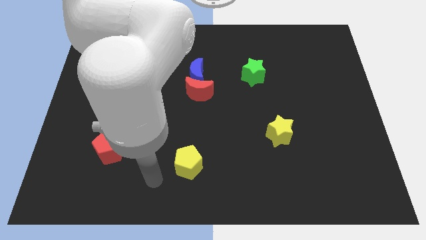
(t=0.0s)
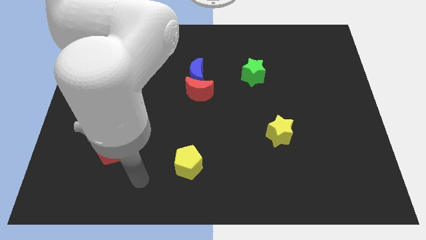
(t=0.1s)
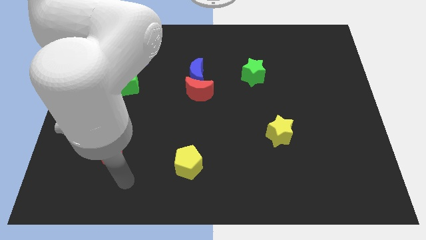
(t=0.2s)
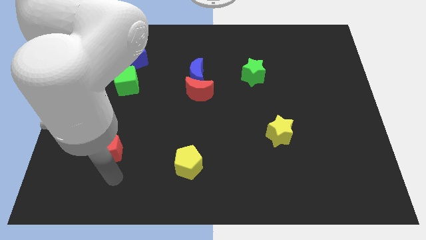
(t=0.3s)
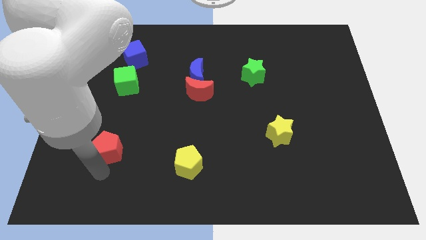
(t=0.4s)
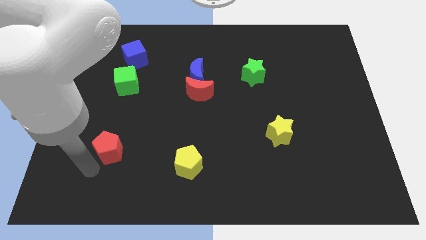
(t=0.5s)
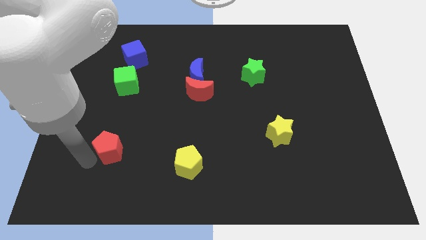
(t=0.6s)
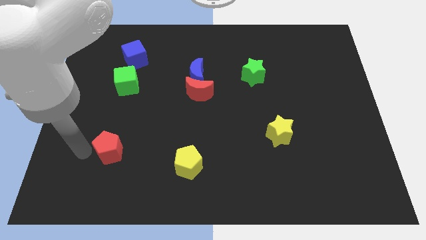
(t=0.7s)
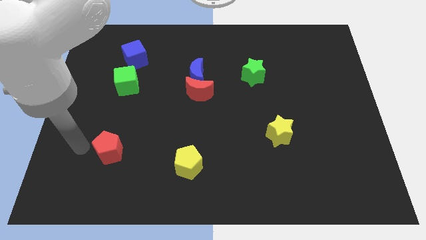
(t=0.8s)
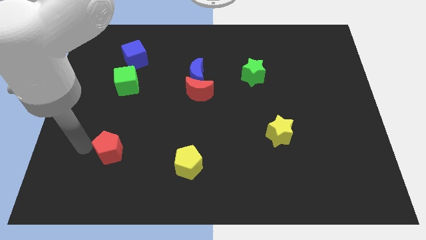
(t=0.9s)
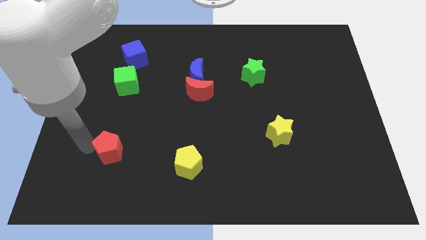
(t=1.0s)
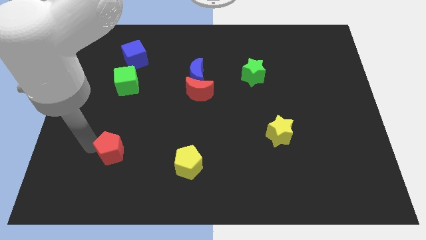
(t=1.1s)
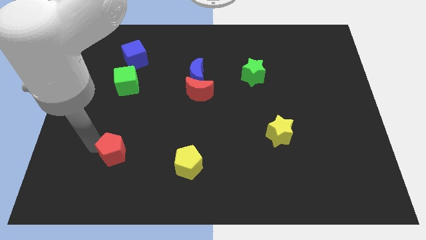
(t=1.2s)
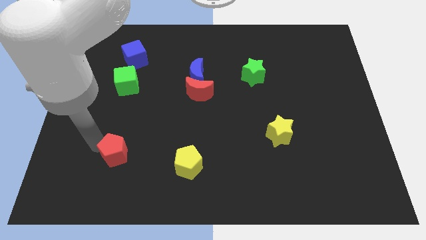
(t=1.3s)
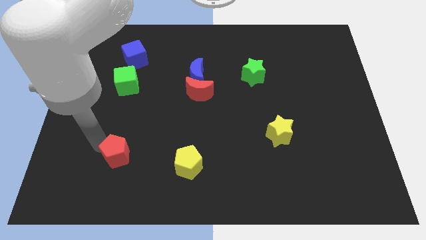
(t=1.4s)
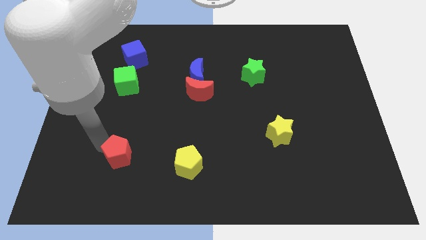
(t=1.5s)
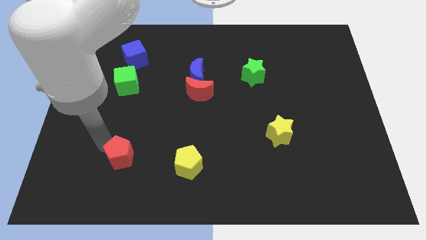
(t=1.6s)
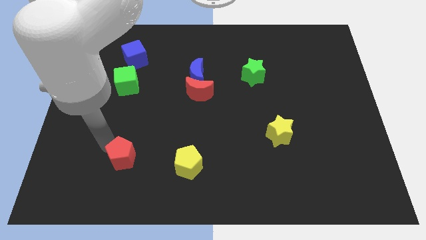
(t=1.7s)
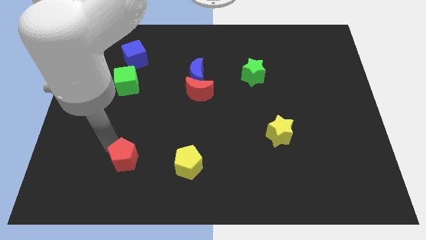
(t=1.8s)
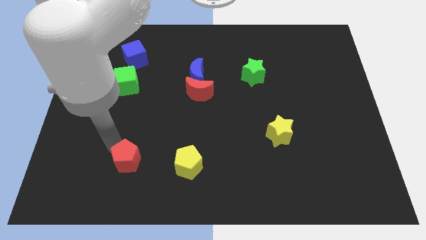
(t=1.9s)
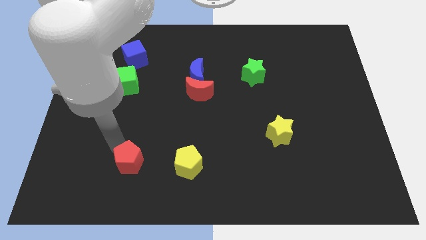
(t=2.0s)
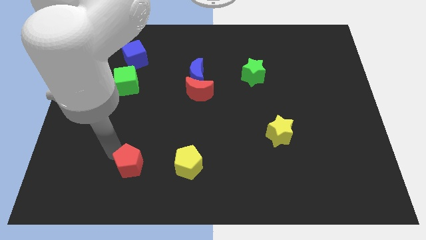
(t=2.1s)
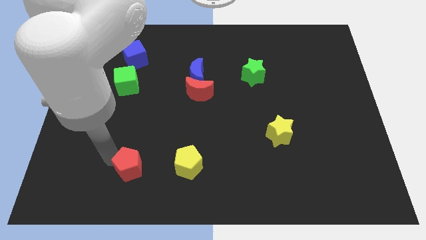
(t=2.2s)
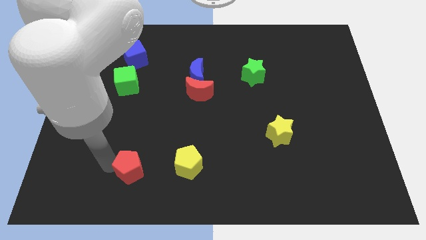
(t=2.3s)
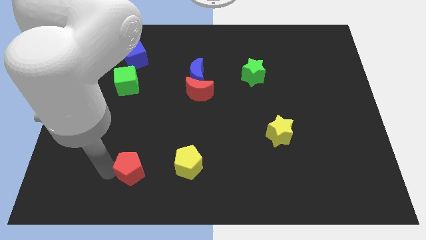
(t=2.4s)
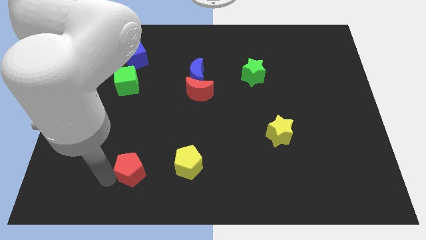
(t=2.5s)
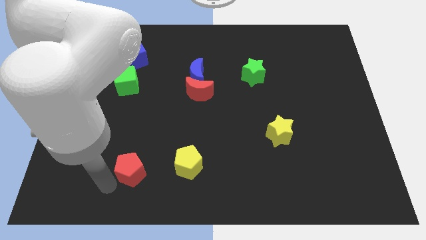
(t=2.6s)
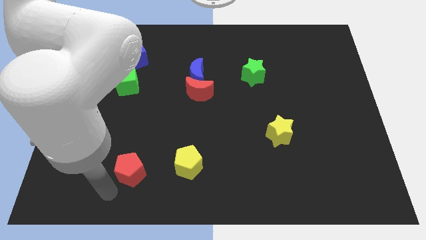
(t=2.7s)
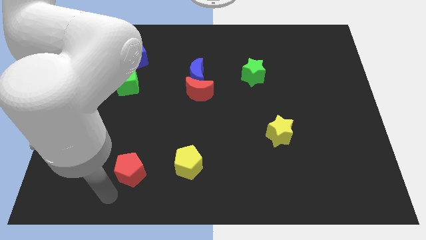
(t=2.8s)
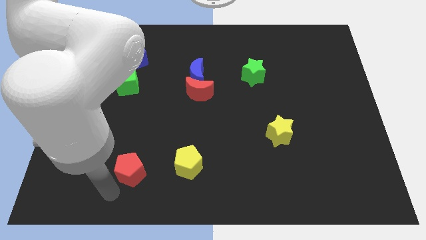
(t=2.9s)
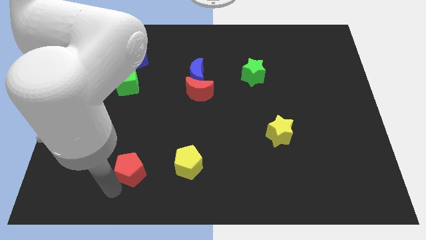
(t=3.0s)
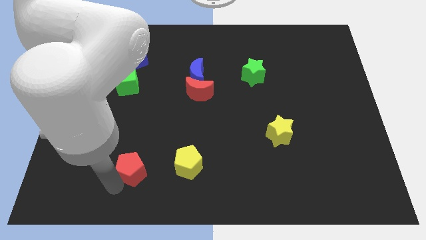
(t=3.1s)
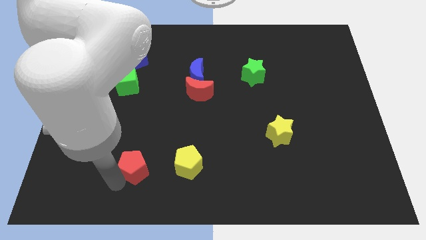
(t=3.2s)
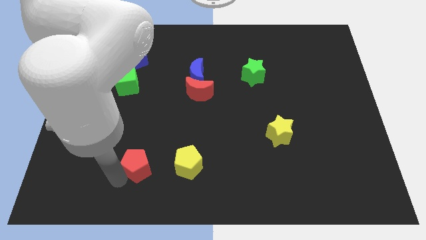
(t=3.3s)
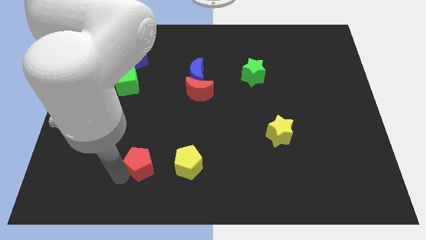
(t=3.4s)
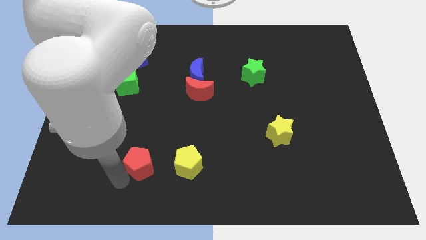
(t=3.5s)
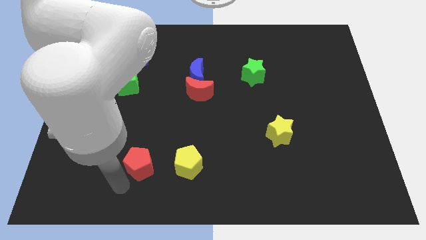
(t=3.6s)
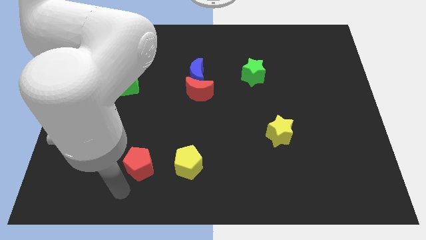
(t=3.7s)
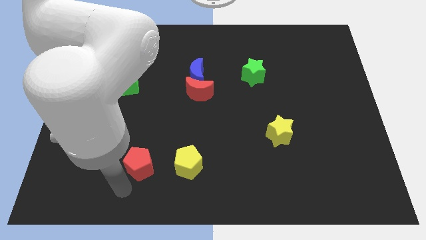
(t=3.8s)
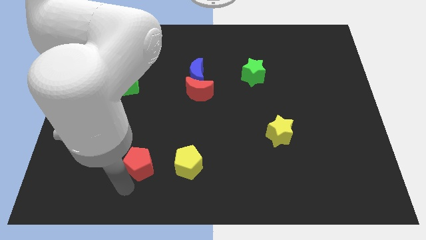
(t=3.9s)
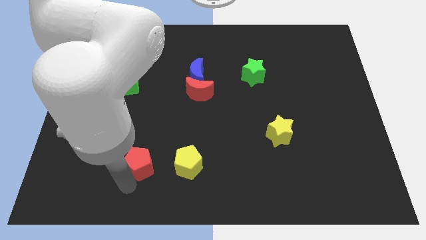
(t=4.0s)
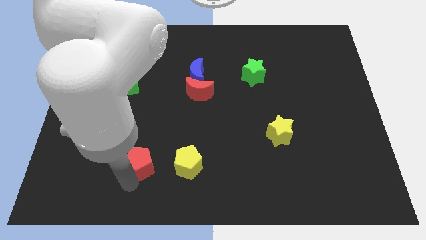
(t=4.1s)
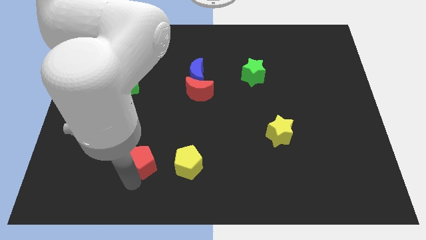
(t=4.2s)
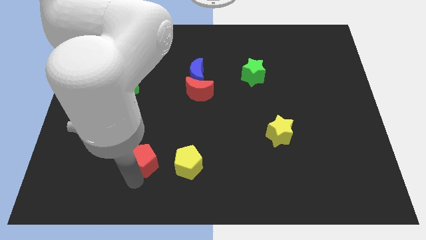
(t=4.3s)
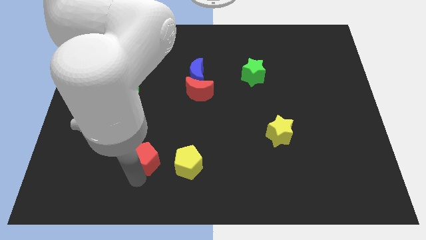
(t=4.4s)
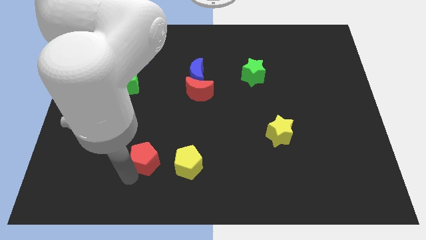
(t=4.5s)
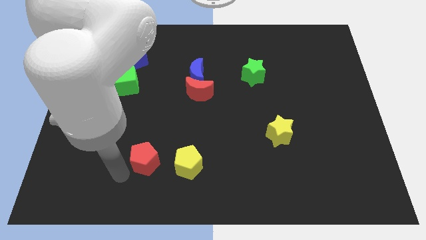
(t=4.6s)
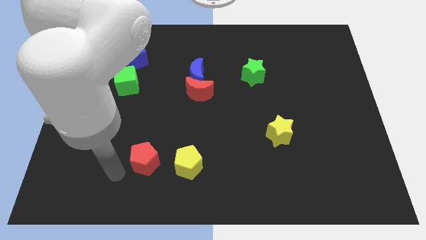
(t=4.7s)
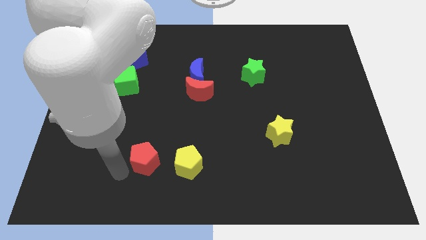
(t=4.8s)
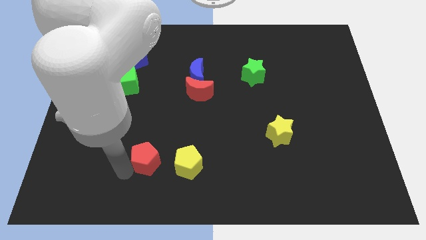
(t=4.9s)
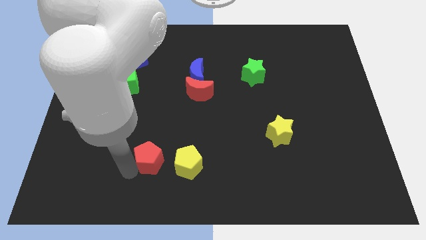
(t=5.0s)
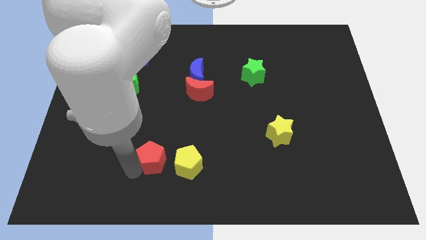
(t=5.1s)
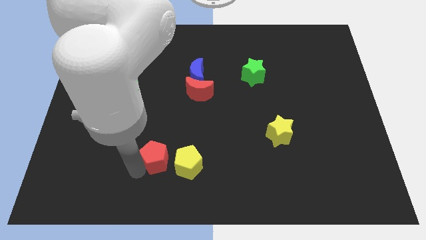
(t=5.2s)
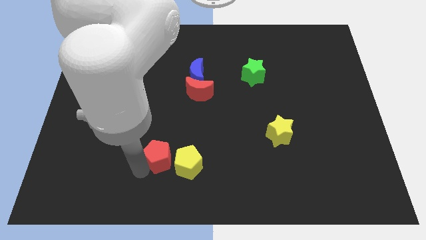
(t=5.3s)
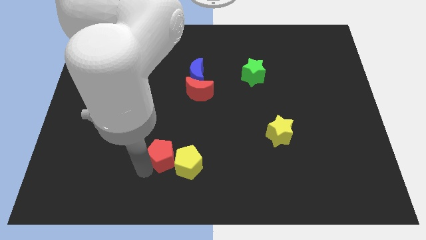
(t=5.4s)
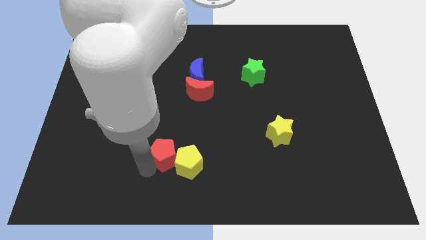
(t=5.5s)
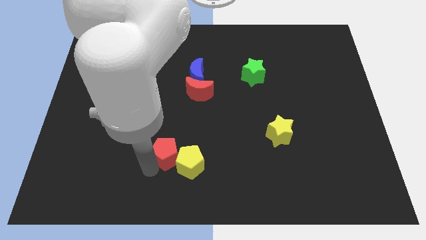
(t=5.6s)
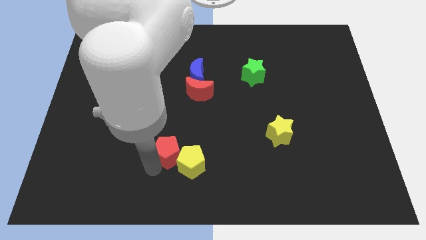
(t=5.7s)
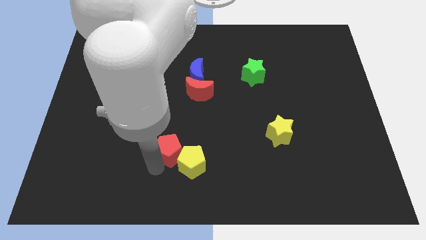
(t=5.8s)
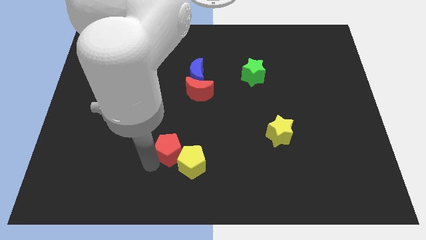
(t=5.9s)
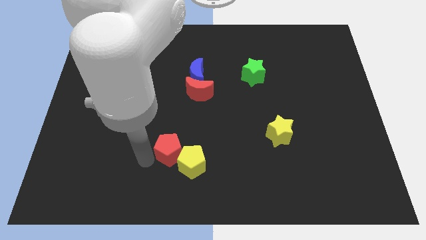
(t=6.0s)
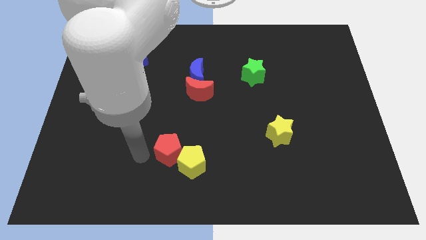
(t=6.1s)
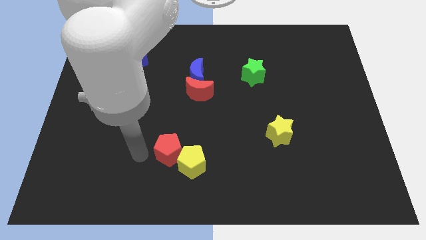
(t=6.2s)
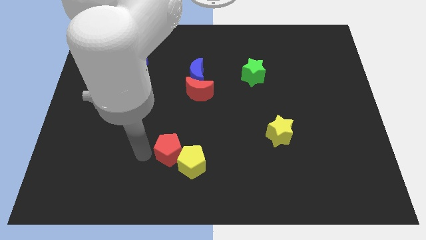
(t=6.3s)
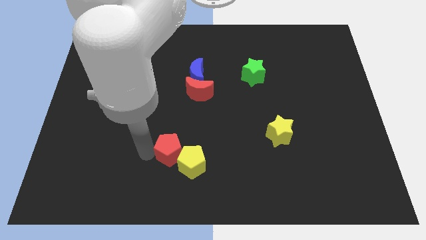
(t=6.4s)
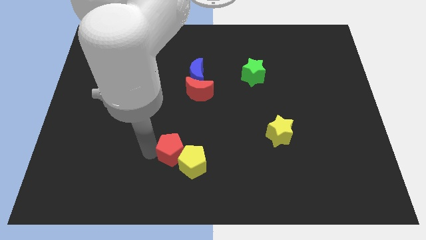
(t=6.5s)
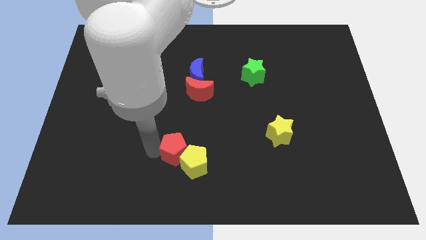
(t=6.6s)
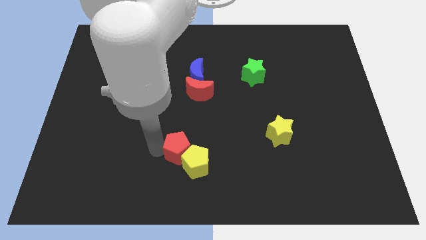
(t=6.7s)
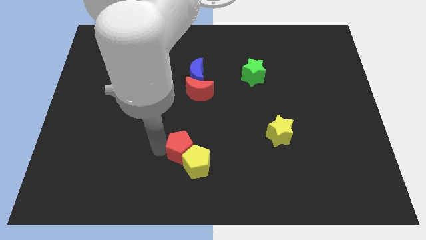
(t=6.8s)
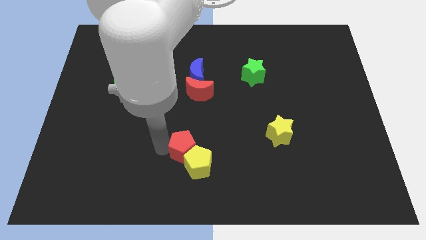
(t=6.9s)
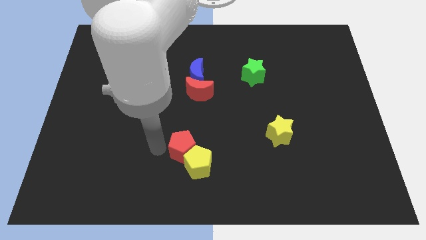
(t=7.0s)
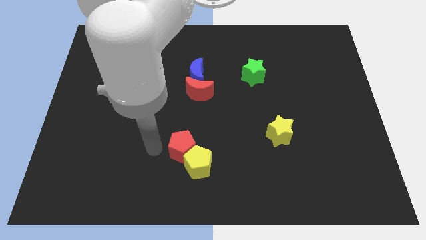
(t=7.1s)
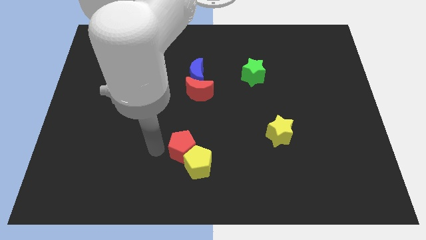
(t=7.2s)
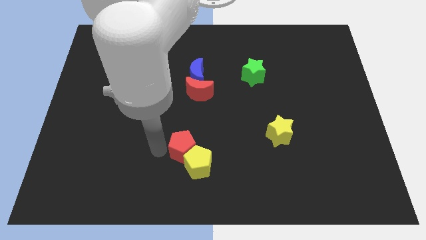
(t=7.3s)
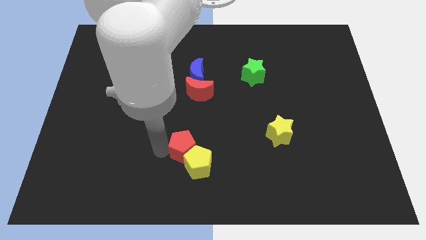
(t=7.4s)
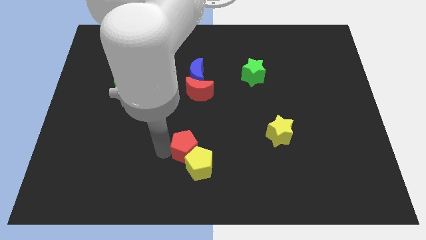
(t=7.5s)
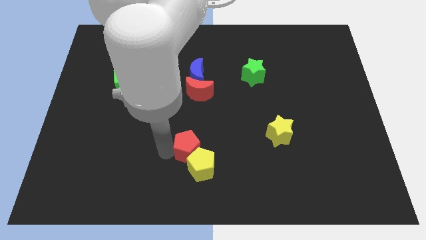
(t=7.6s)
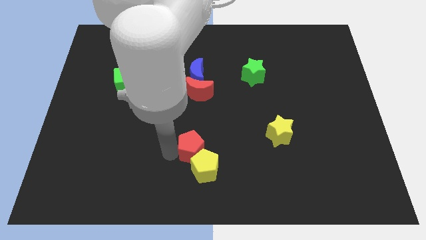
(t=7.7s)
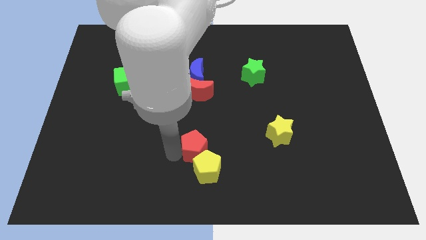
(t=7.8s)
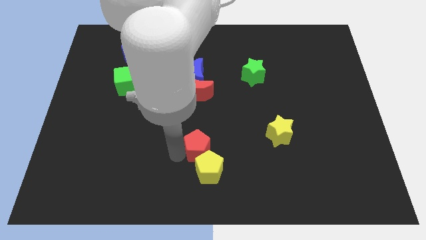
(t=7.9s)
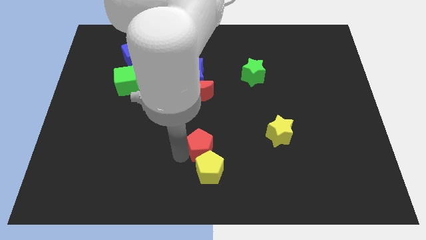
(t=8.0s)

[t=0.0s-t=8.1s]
push the red pentagon right

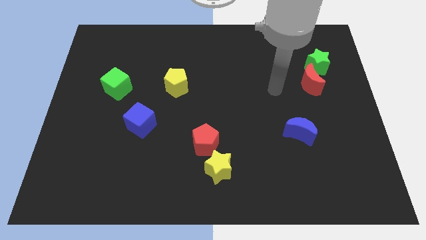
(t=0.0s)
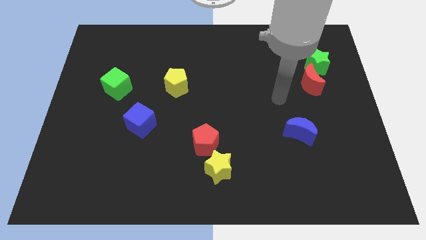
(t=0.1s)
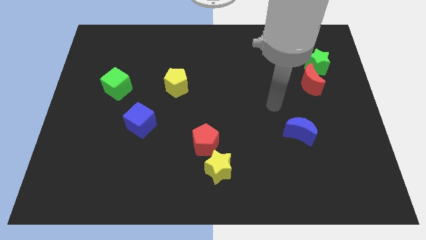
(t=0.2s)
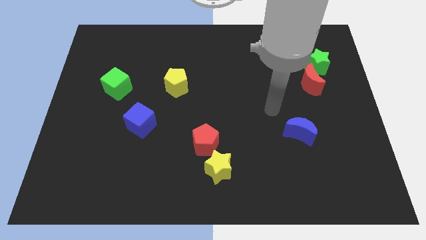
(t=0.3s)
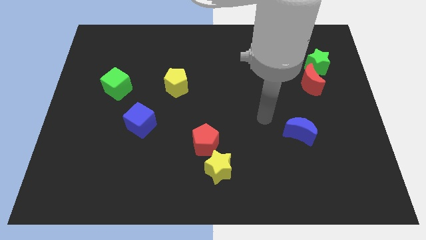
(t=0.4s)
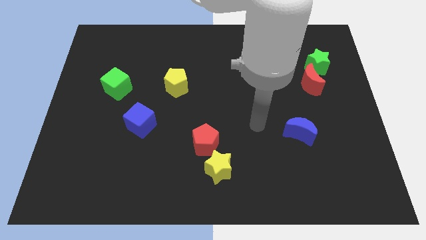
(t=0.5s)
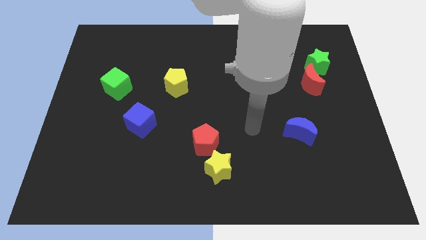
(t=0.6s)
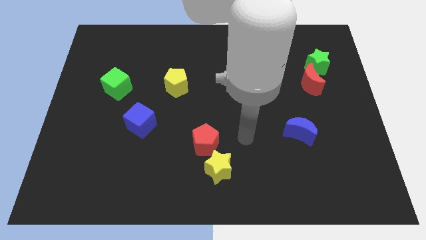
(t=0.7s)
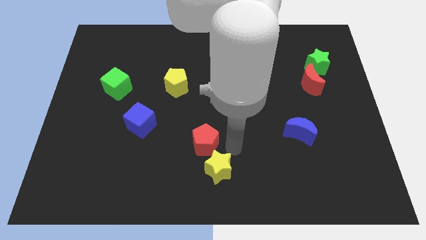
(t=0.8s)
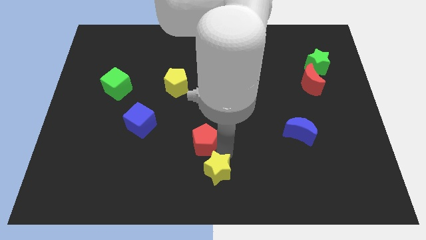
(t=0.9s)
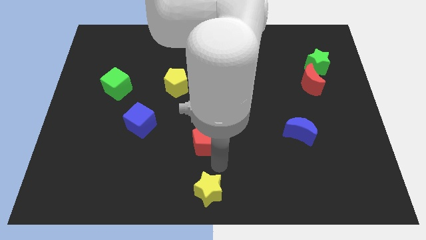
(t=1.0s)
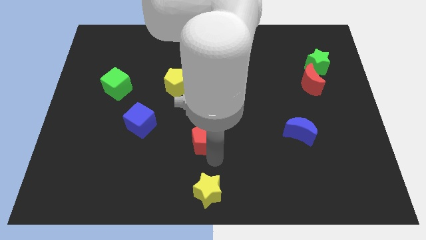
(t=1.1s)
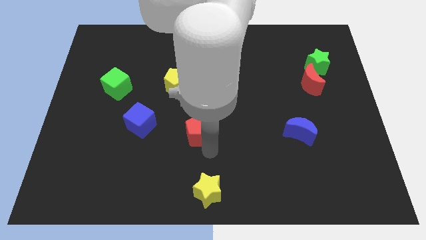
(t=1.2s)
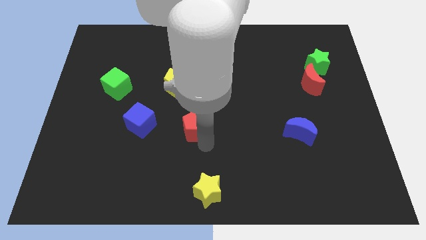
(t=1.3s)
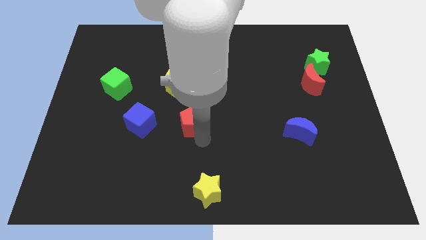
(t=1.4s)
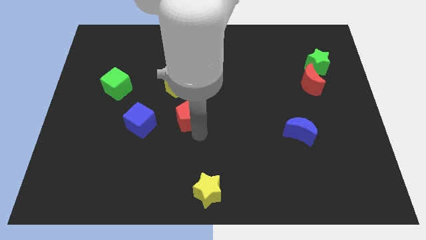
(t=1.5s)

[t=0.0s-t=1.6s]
slide the red pentagon a bit upwards and left
